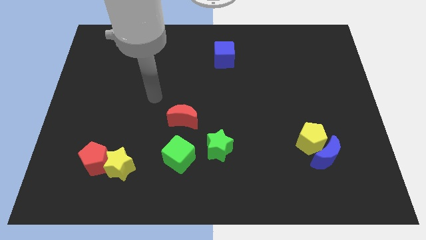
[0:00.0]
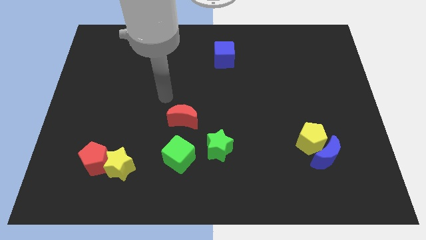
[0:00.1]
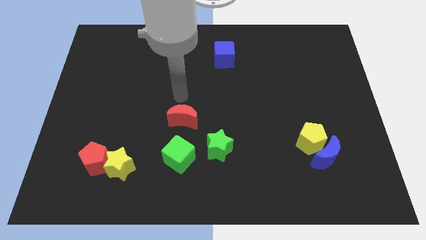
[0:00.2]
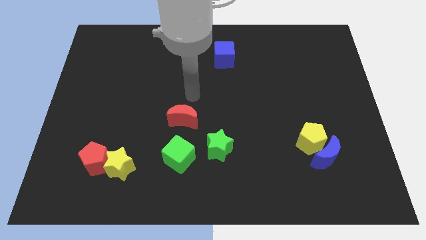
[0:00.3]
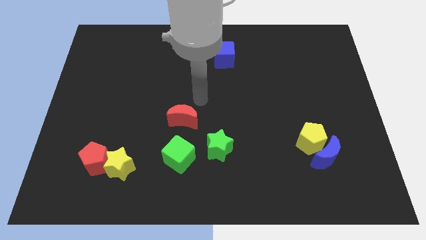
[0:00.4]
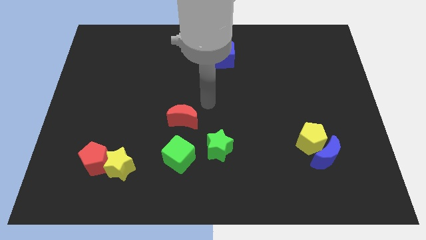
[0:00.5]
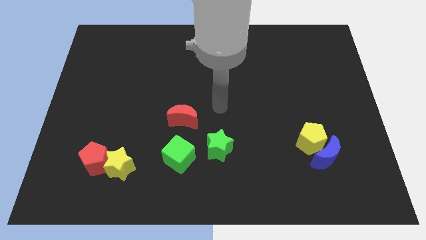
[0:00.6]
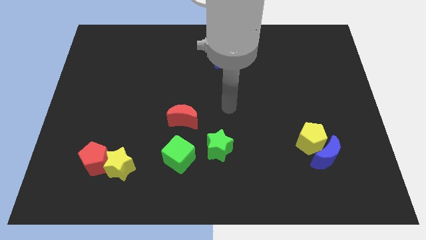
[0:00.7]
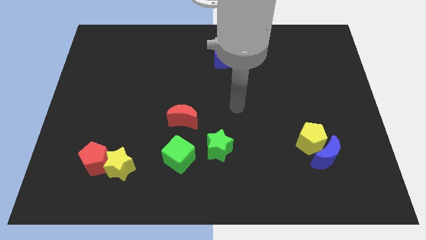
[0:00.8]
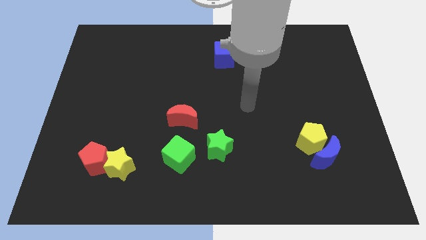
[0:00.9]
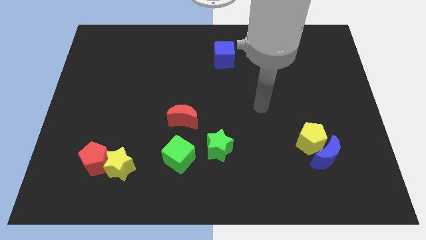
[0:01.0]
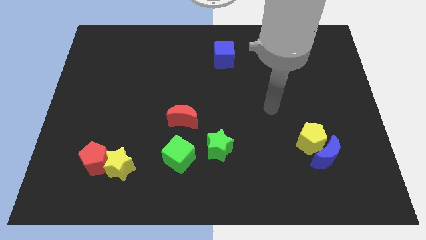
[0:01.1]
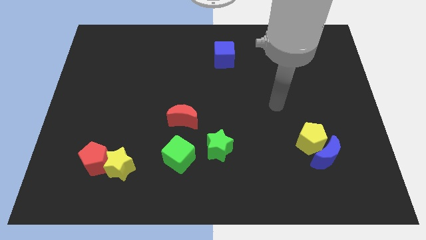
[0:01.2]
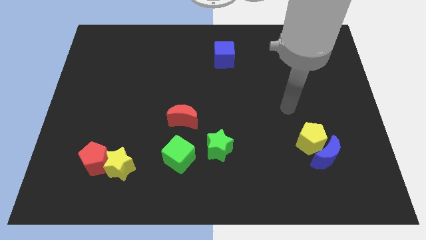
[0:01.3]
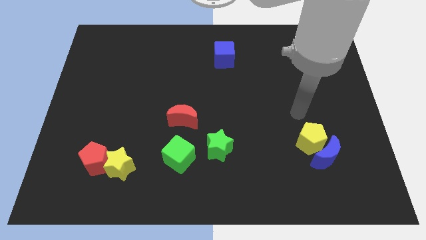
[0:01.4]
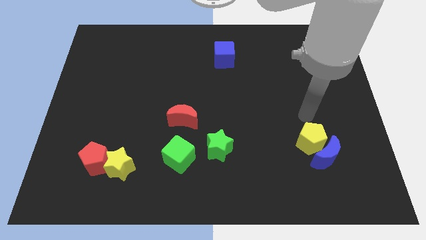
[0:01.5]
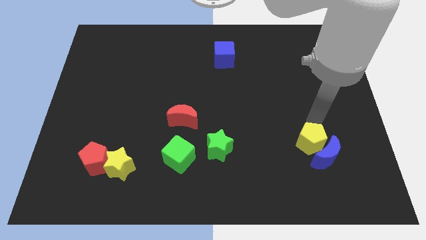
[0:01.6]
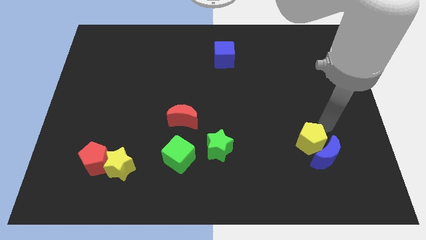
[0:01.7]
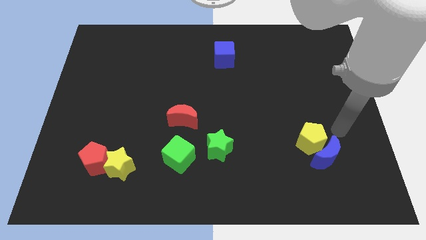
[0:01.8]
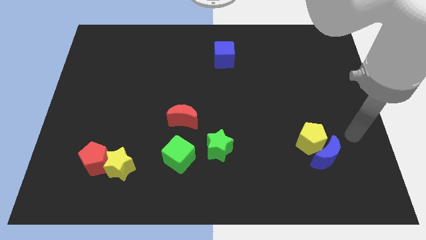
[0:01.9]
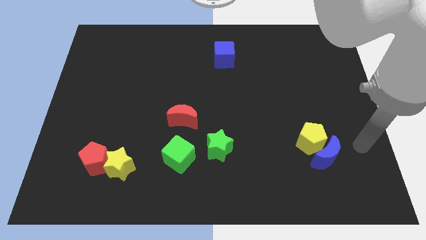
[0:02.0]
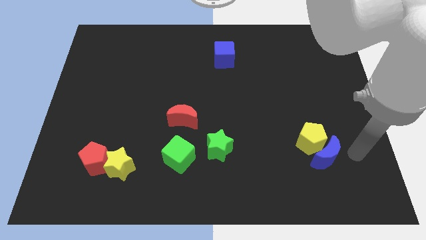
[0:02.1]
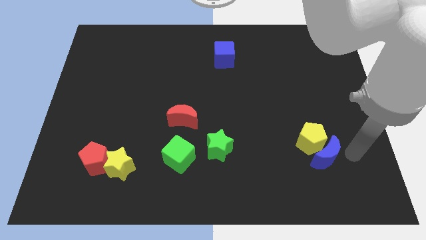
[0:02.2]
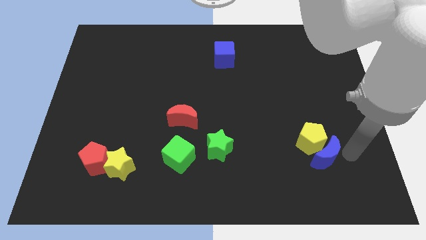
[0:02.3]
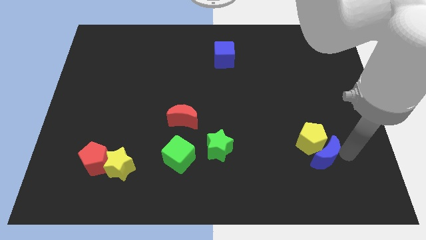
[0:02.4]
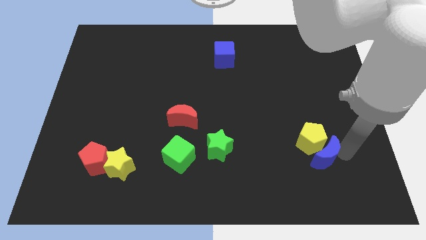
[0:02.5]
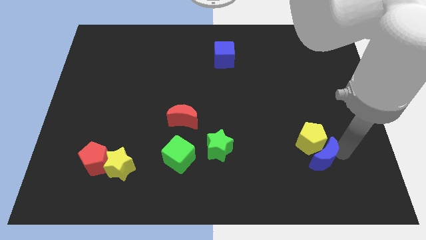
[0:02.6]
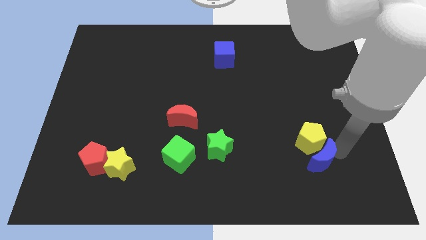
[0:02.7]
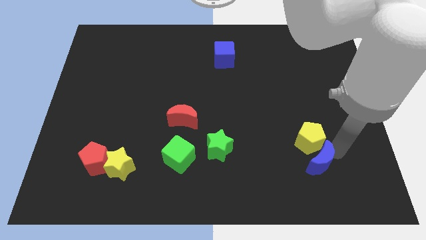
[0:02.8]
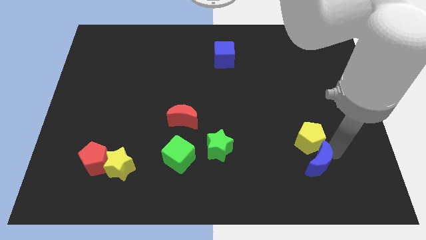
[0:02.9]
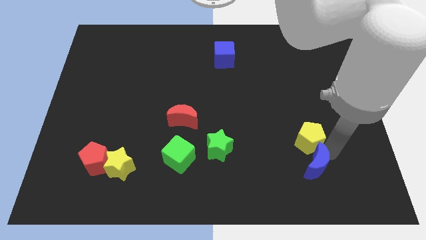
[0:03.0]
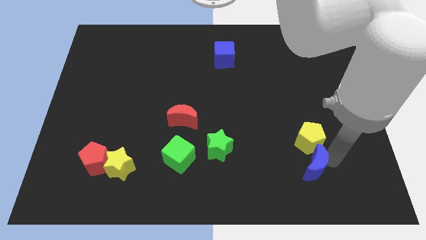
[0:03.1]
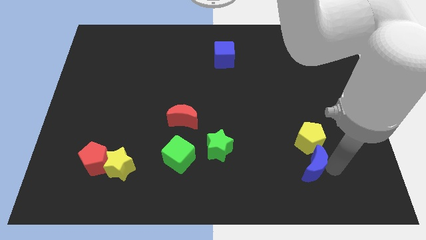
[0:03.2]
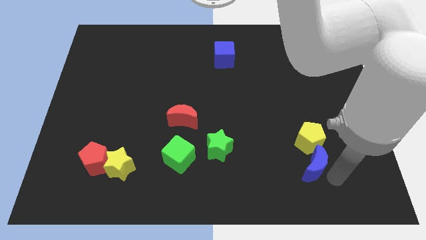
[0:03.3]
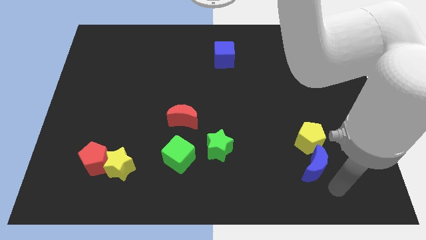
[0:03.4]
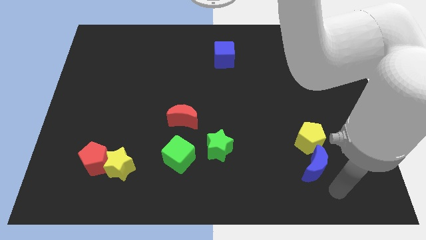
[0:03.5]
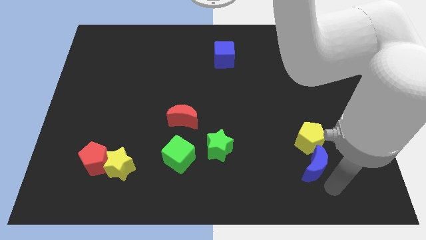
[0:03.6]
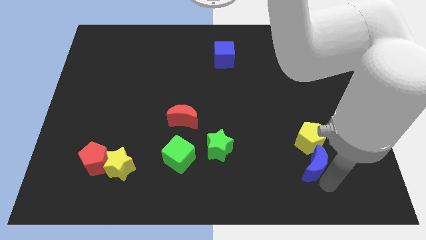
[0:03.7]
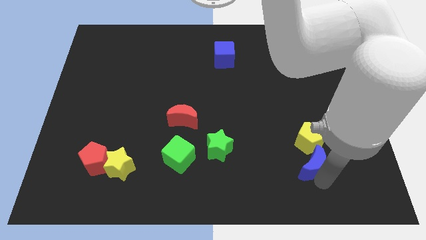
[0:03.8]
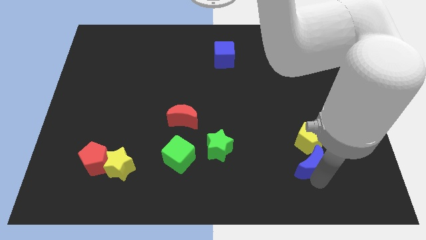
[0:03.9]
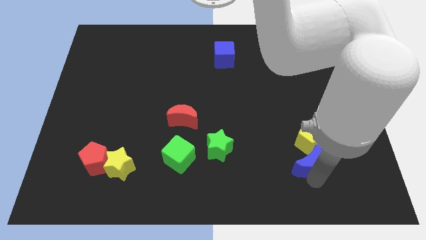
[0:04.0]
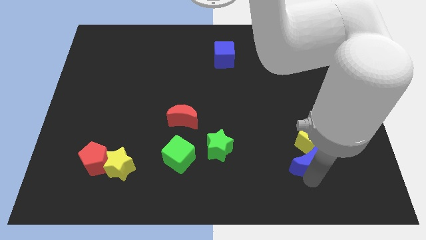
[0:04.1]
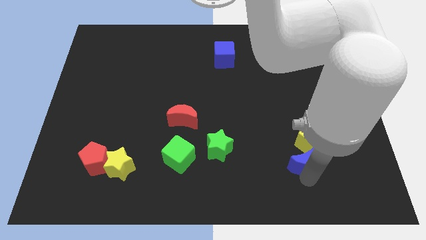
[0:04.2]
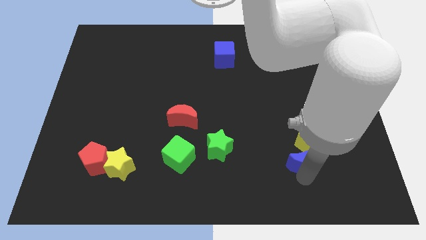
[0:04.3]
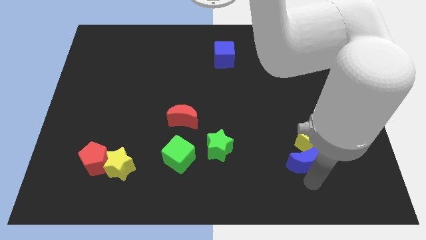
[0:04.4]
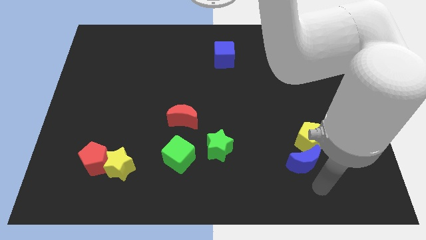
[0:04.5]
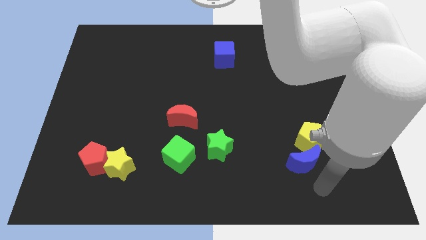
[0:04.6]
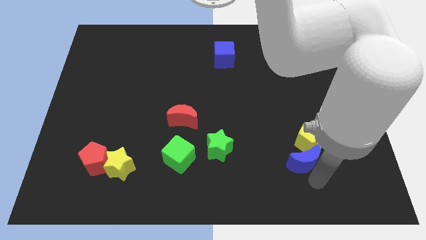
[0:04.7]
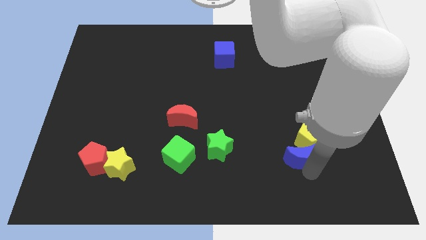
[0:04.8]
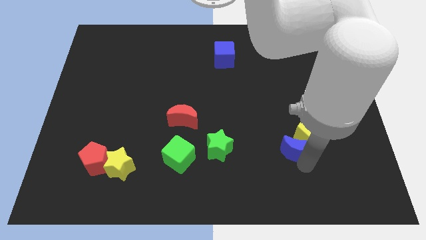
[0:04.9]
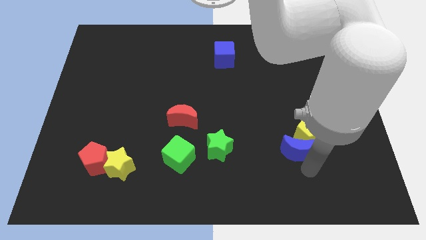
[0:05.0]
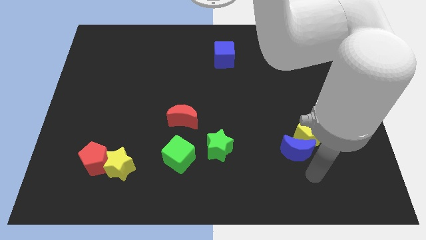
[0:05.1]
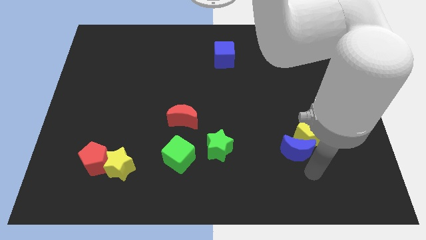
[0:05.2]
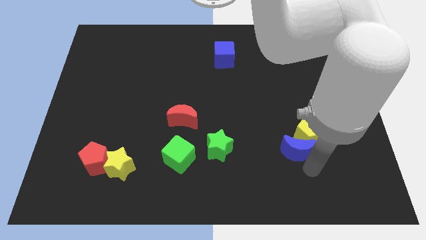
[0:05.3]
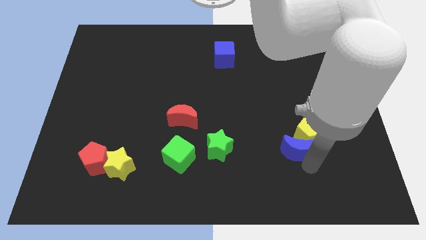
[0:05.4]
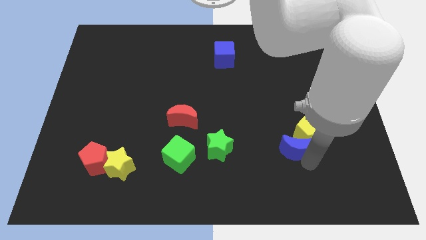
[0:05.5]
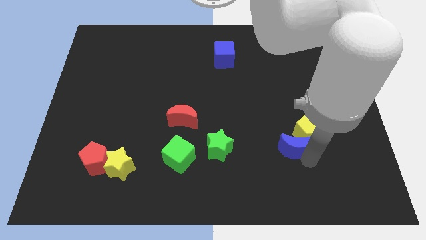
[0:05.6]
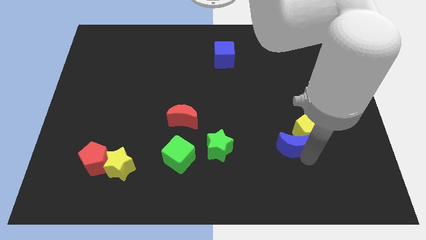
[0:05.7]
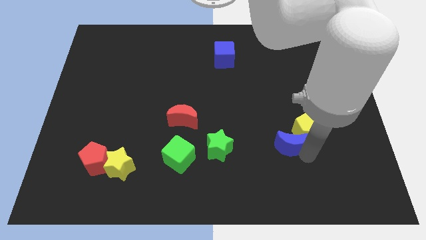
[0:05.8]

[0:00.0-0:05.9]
slightly push the blue moon upwards and to the left

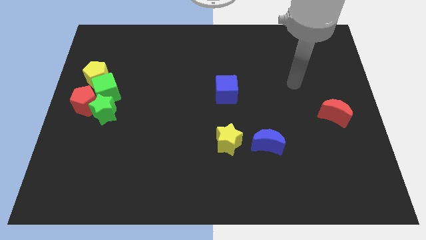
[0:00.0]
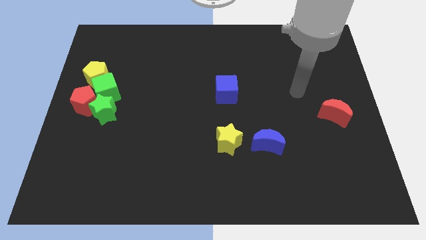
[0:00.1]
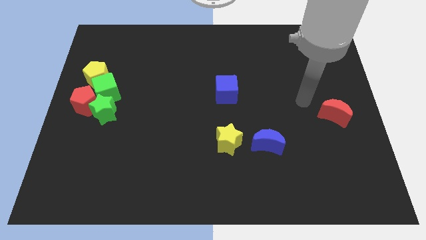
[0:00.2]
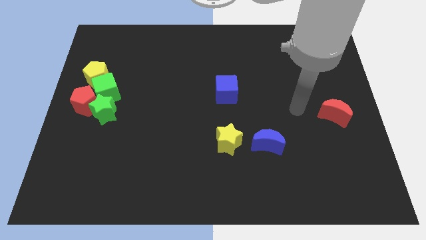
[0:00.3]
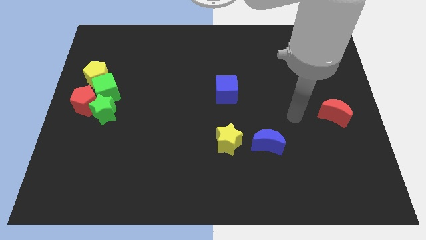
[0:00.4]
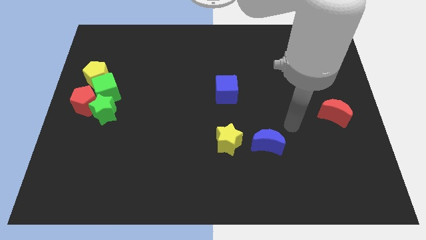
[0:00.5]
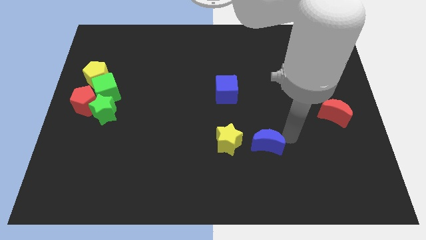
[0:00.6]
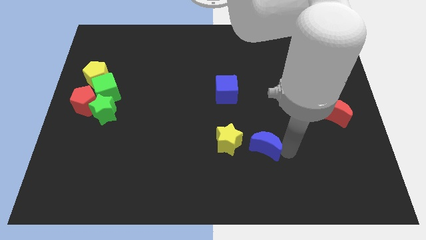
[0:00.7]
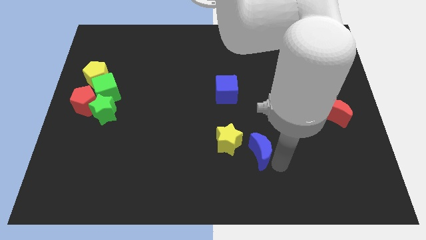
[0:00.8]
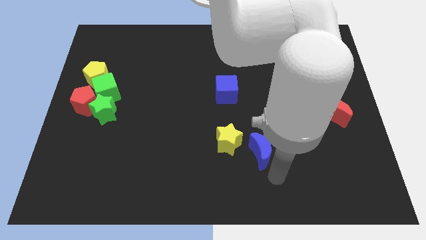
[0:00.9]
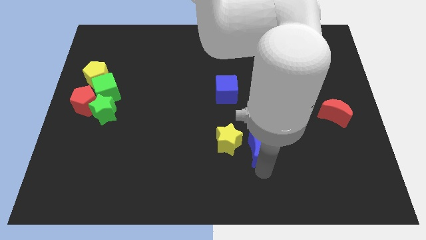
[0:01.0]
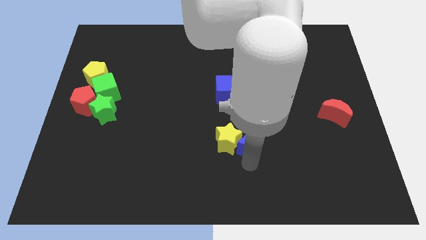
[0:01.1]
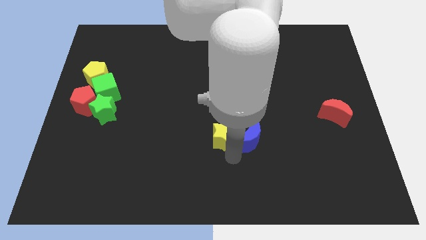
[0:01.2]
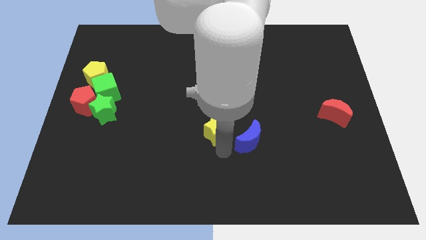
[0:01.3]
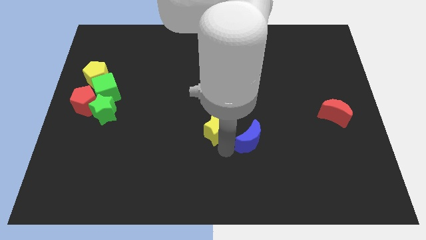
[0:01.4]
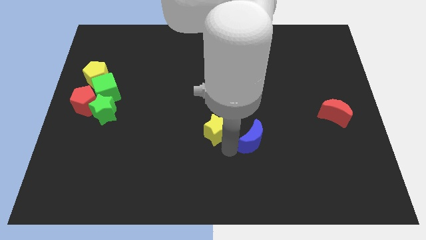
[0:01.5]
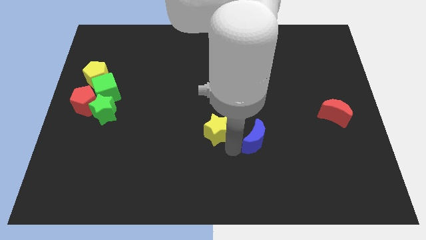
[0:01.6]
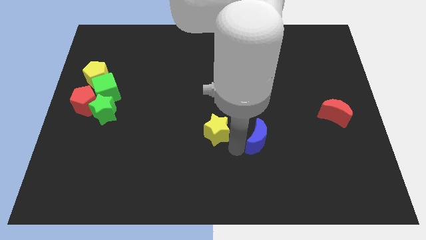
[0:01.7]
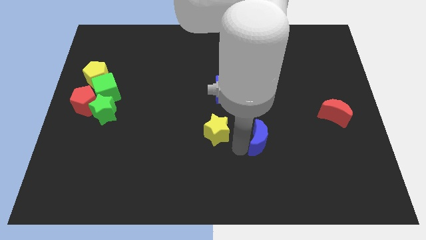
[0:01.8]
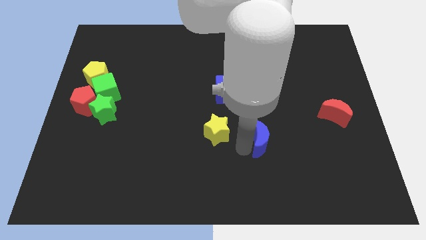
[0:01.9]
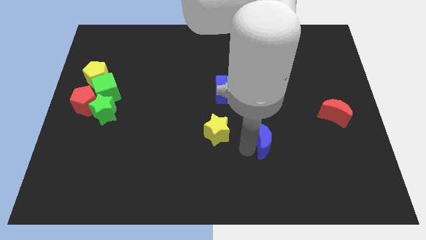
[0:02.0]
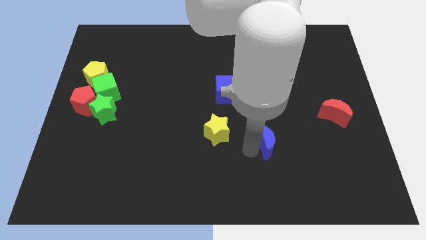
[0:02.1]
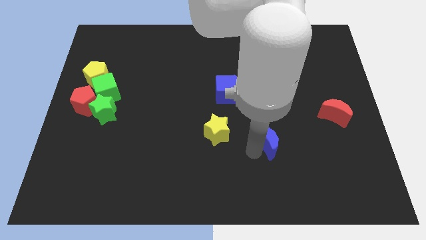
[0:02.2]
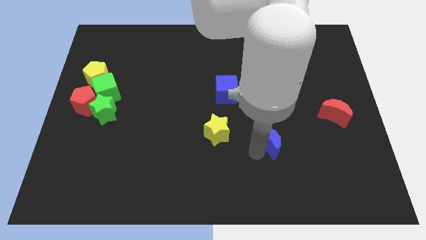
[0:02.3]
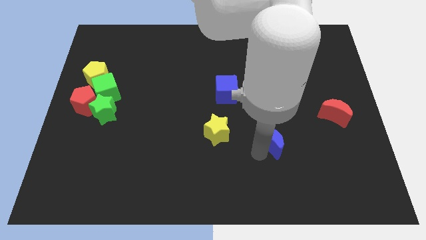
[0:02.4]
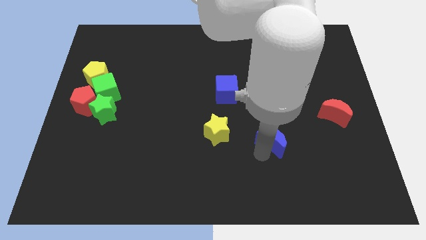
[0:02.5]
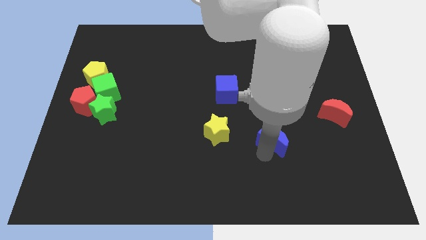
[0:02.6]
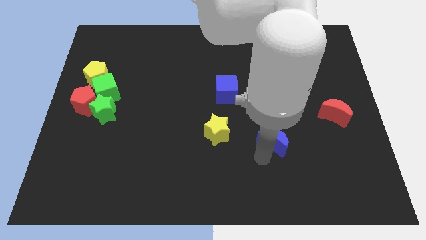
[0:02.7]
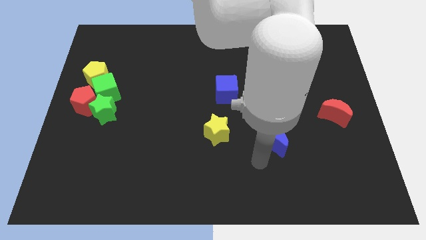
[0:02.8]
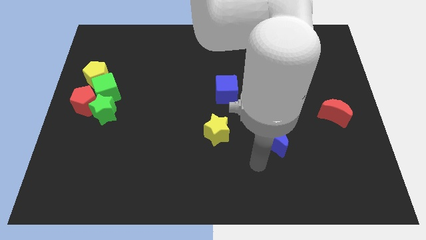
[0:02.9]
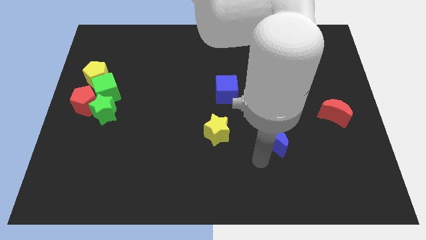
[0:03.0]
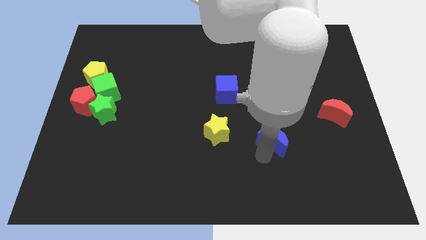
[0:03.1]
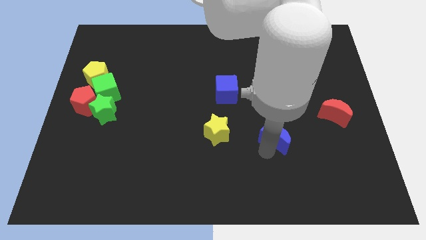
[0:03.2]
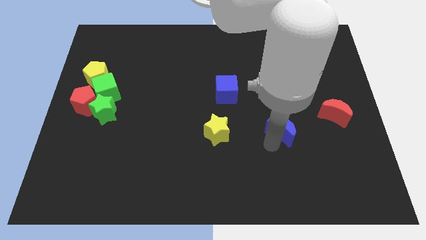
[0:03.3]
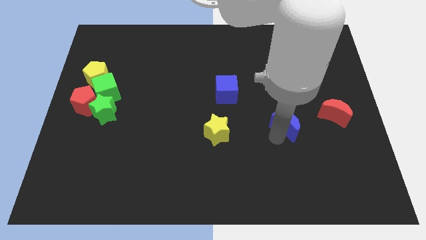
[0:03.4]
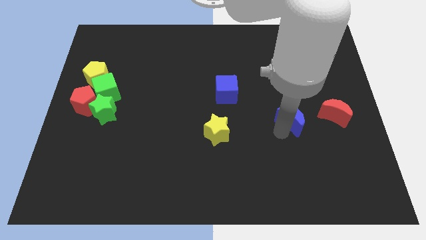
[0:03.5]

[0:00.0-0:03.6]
slightly push the blue moon up and to the right diagonally
